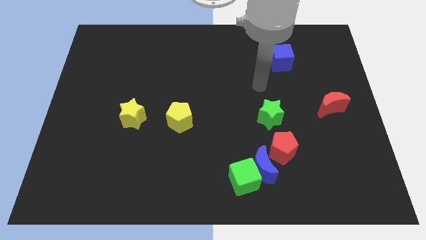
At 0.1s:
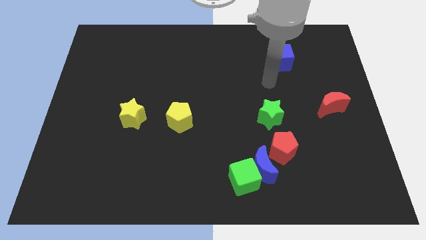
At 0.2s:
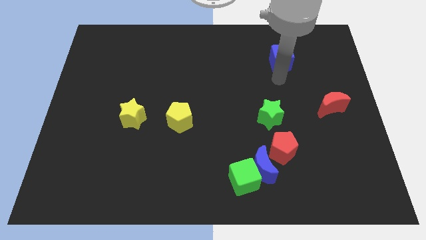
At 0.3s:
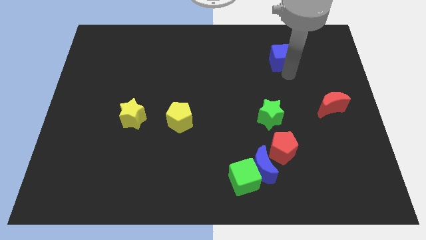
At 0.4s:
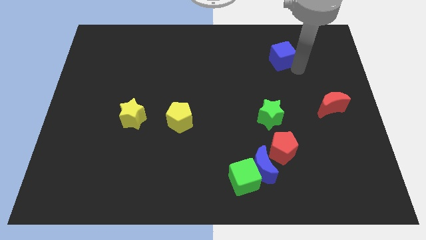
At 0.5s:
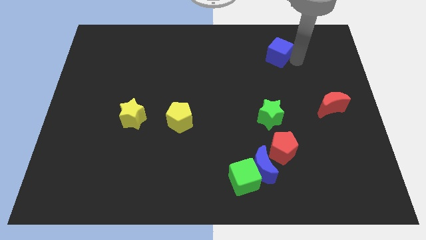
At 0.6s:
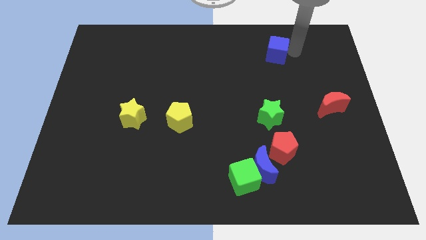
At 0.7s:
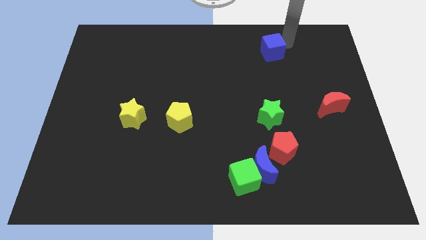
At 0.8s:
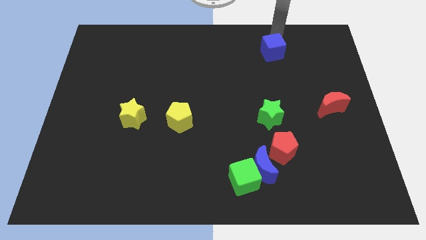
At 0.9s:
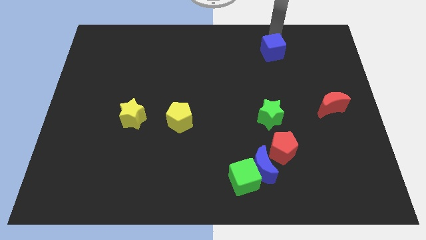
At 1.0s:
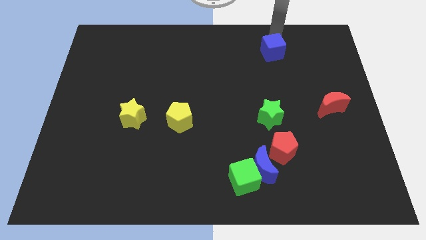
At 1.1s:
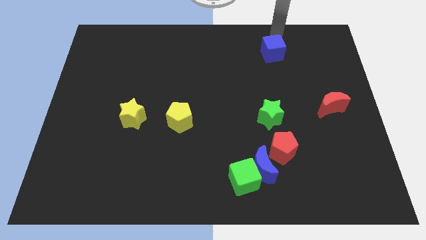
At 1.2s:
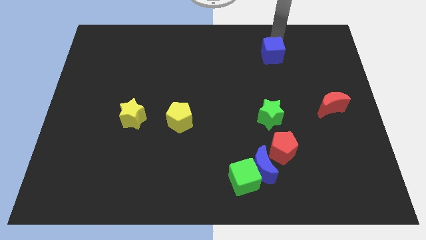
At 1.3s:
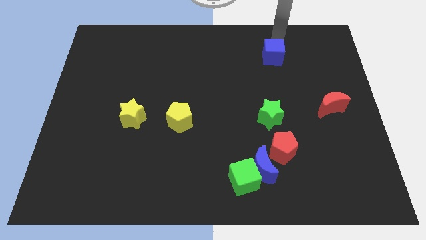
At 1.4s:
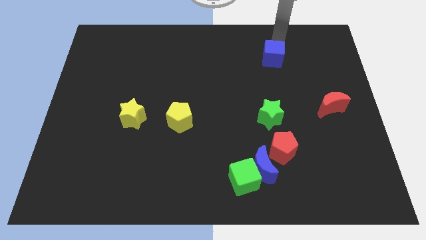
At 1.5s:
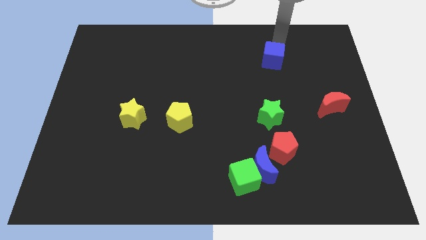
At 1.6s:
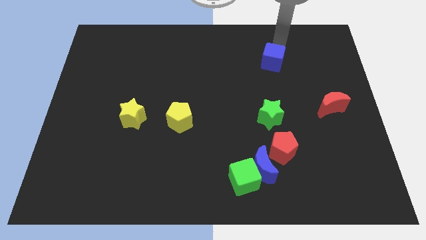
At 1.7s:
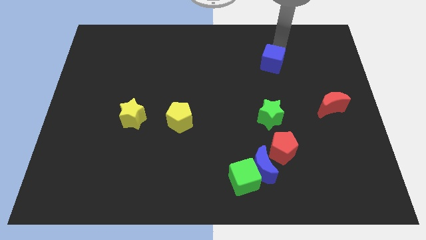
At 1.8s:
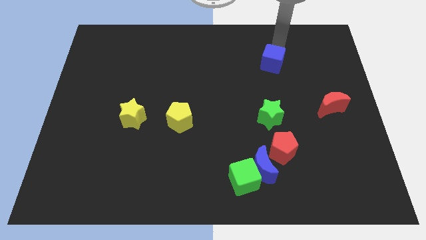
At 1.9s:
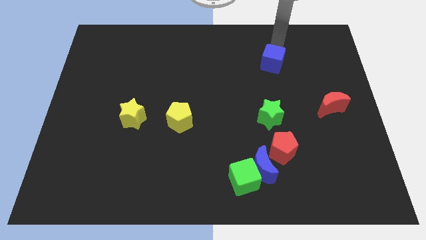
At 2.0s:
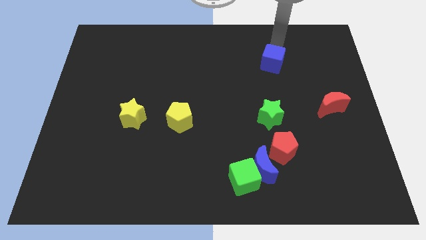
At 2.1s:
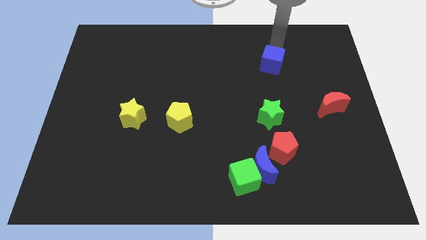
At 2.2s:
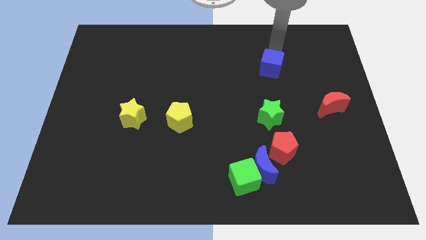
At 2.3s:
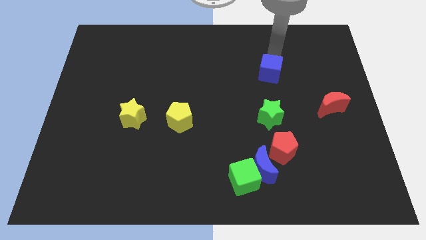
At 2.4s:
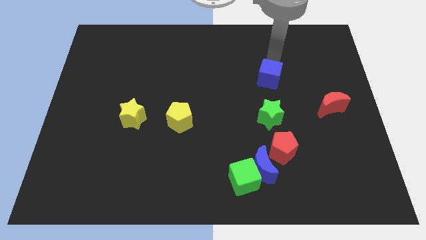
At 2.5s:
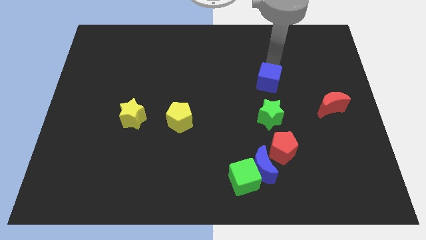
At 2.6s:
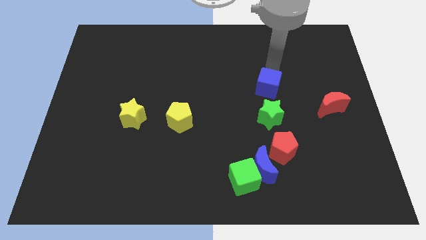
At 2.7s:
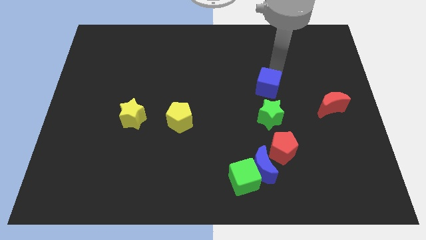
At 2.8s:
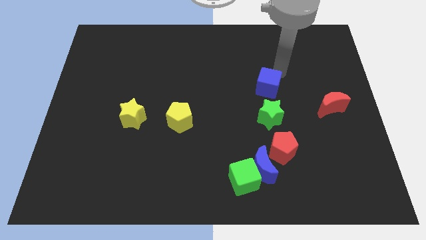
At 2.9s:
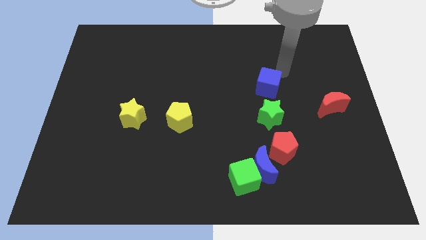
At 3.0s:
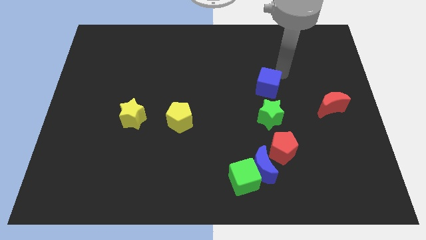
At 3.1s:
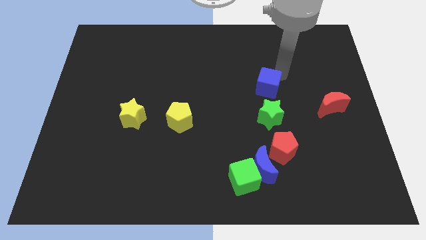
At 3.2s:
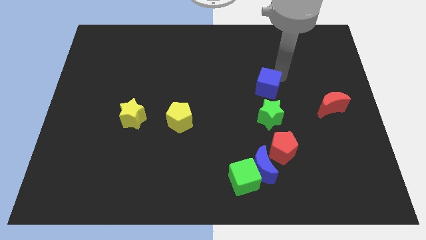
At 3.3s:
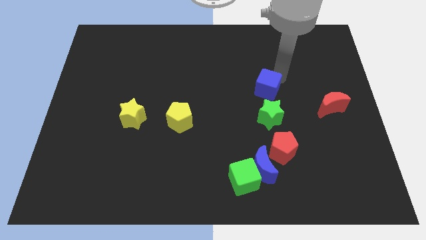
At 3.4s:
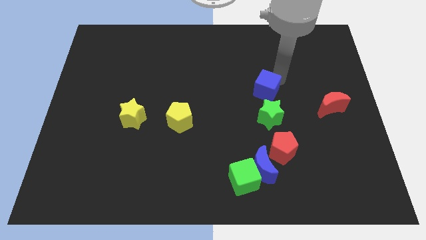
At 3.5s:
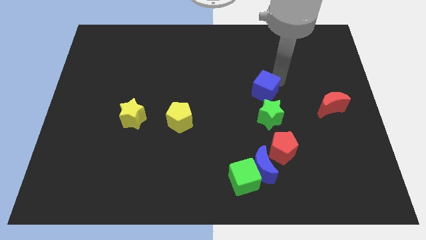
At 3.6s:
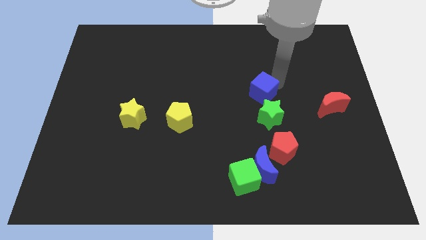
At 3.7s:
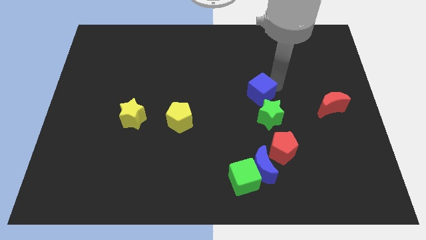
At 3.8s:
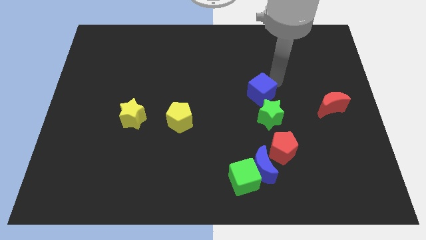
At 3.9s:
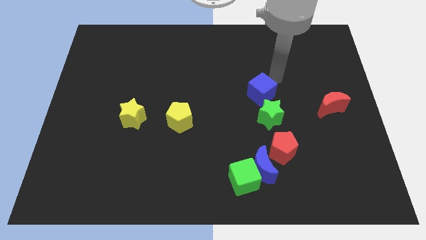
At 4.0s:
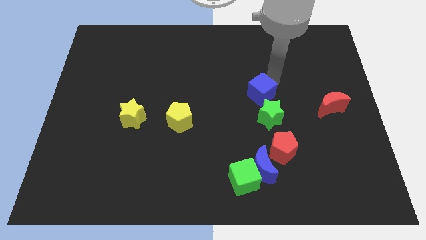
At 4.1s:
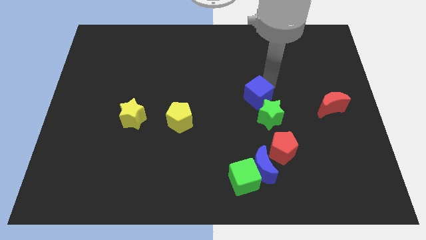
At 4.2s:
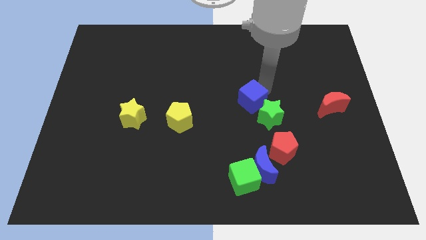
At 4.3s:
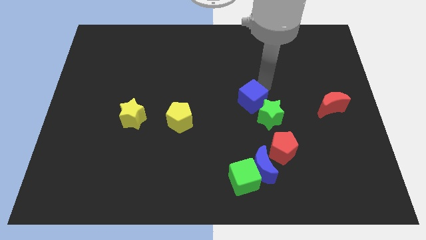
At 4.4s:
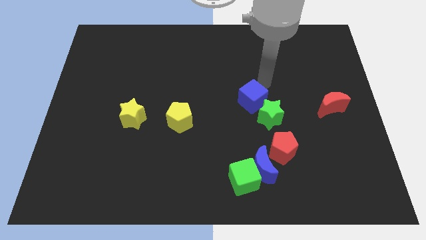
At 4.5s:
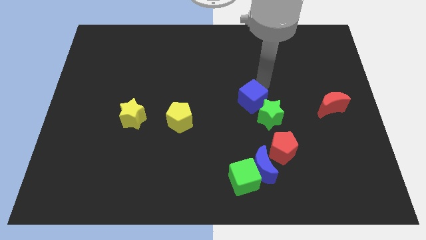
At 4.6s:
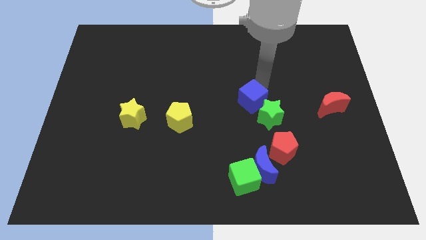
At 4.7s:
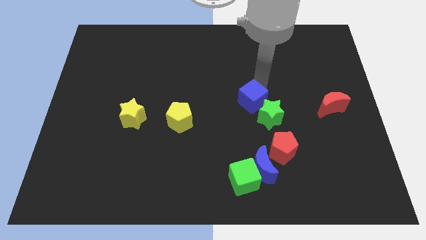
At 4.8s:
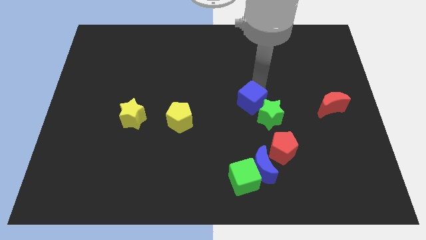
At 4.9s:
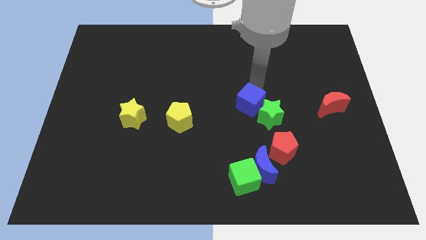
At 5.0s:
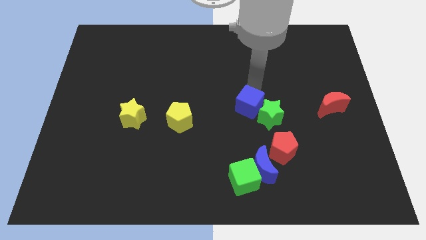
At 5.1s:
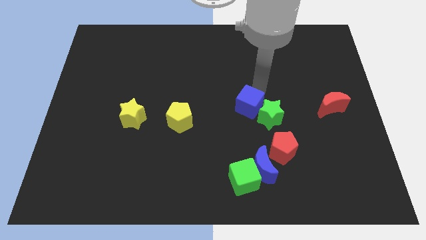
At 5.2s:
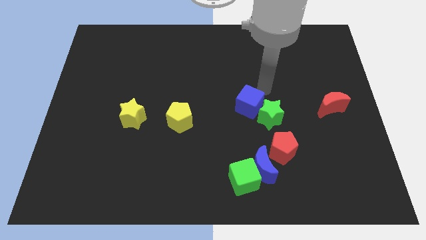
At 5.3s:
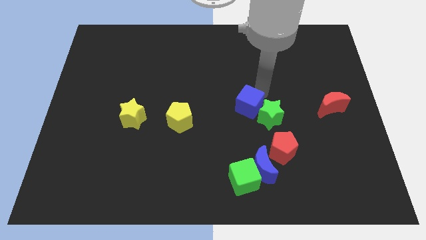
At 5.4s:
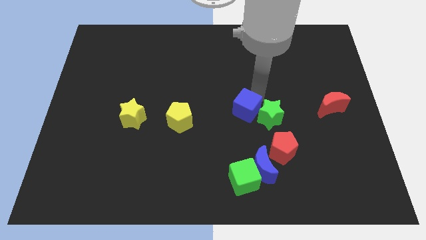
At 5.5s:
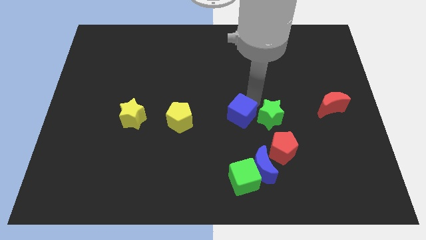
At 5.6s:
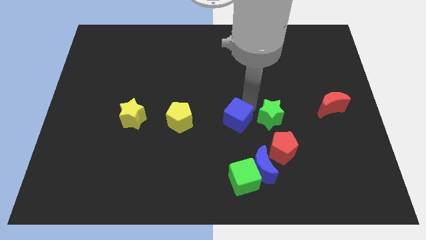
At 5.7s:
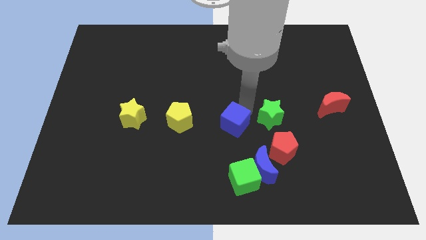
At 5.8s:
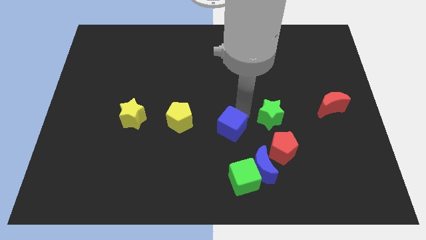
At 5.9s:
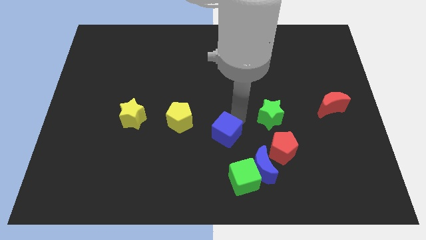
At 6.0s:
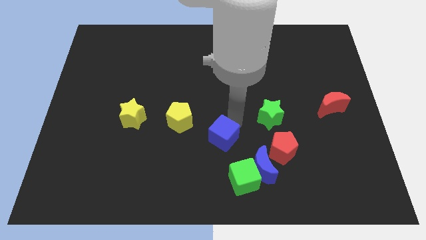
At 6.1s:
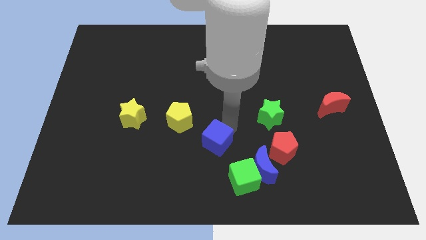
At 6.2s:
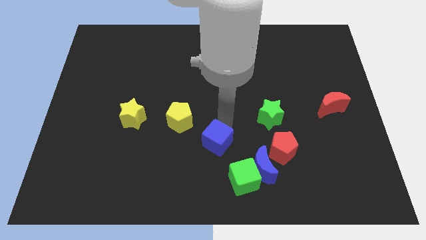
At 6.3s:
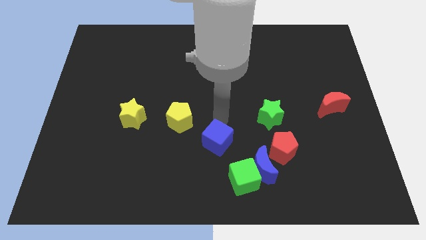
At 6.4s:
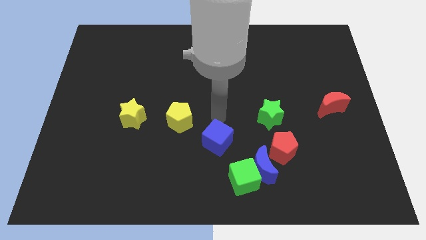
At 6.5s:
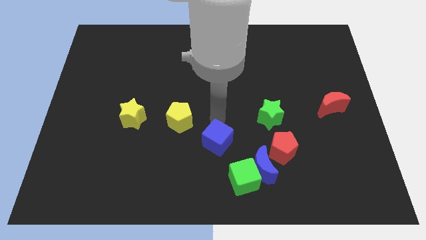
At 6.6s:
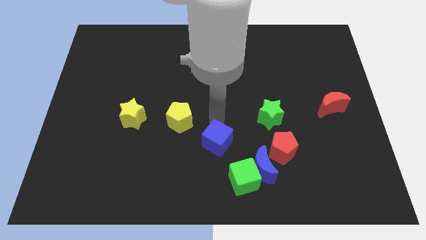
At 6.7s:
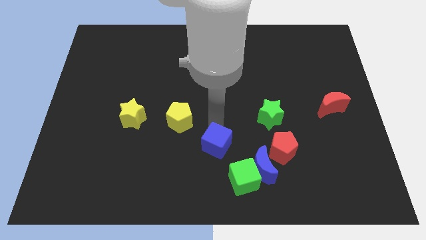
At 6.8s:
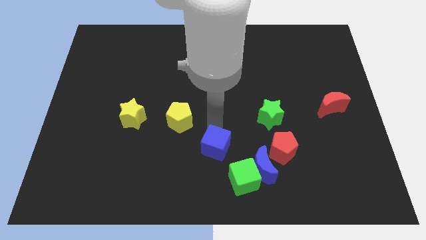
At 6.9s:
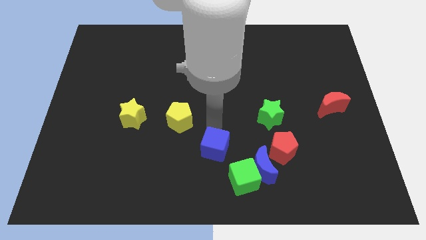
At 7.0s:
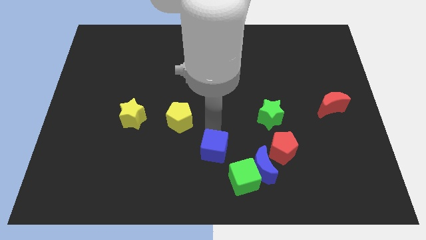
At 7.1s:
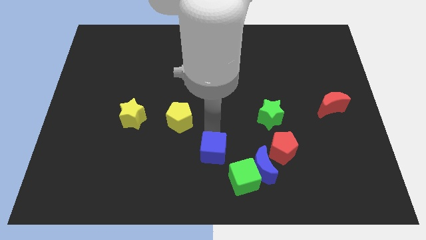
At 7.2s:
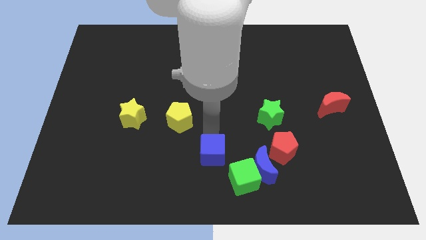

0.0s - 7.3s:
move the blue cube to the bottom
